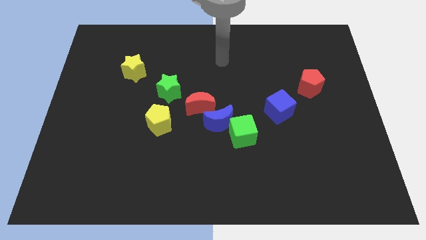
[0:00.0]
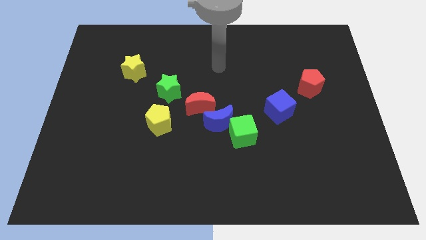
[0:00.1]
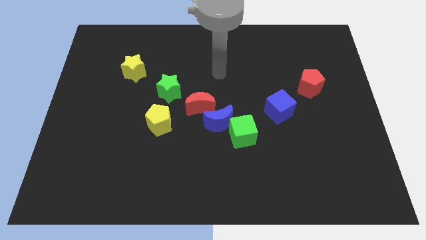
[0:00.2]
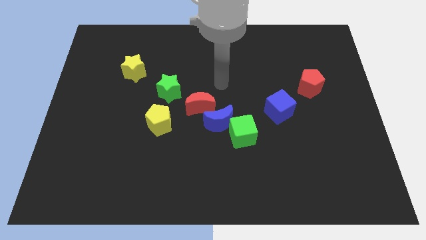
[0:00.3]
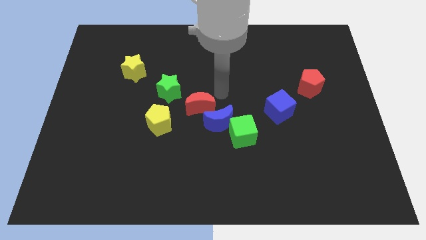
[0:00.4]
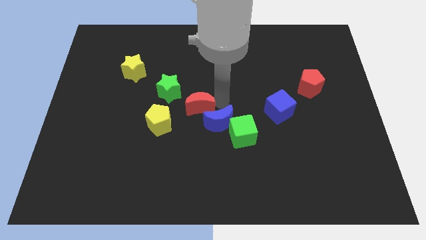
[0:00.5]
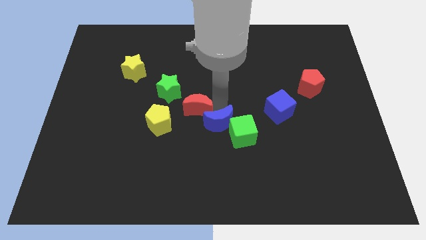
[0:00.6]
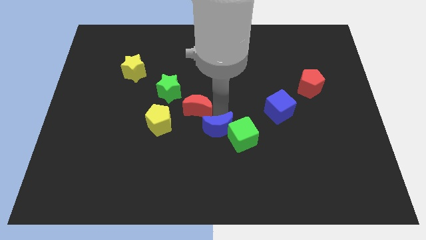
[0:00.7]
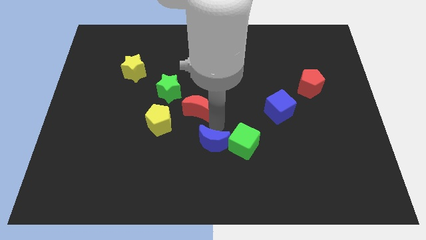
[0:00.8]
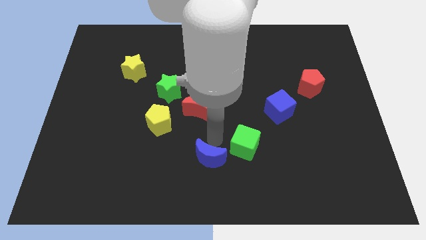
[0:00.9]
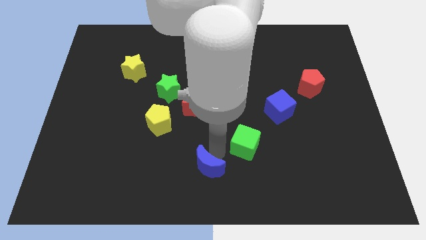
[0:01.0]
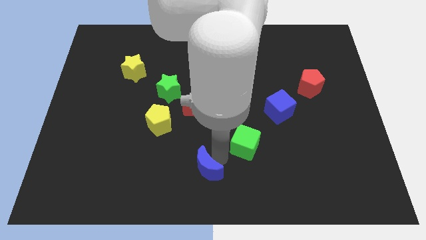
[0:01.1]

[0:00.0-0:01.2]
separate the green cube from the blue moon

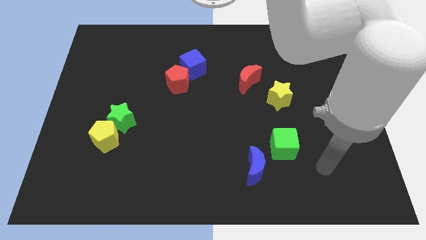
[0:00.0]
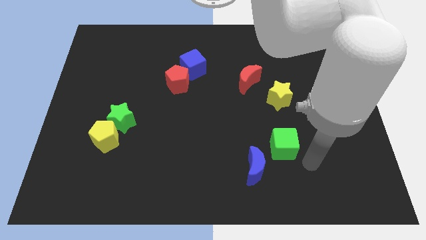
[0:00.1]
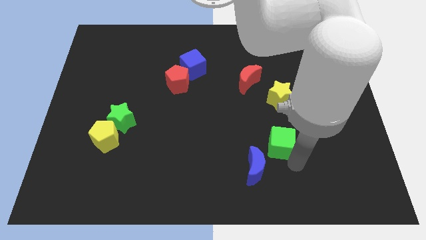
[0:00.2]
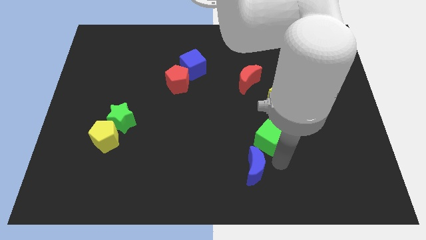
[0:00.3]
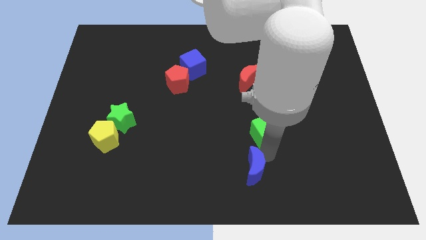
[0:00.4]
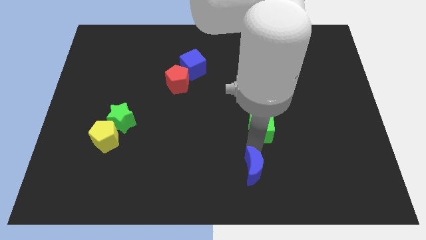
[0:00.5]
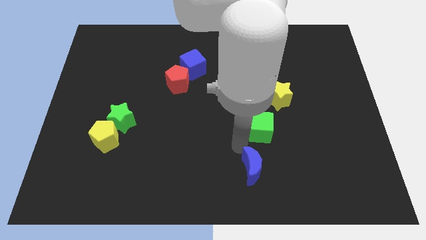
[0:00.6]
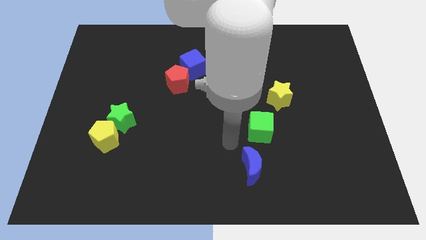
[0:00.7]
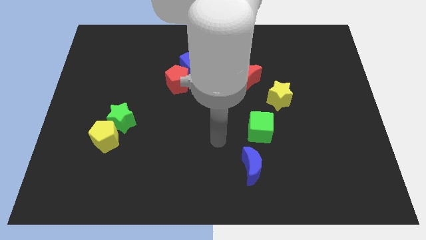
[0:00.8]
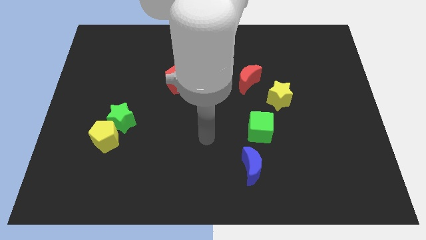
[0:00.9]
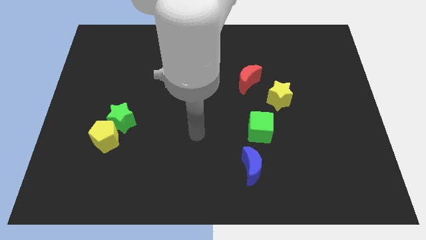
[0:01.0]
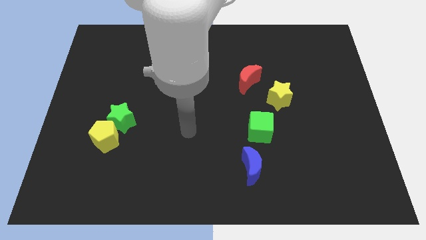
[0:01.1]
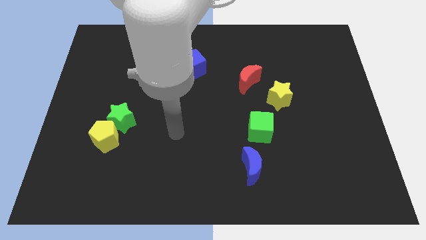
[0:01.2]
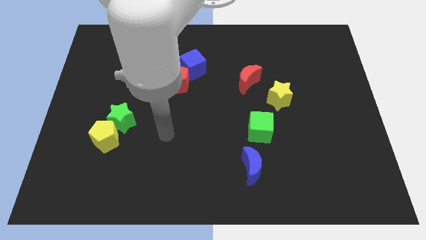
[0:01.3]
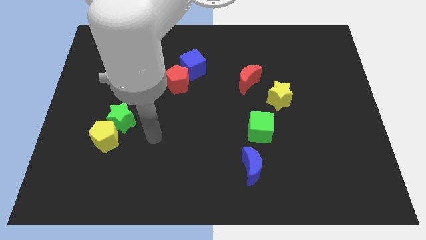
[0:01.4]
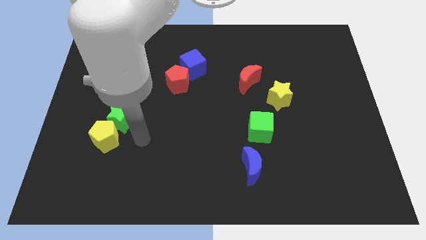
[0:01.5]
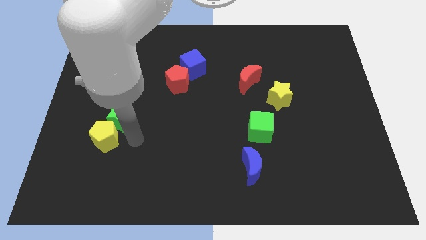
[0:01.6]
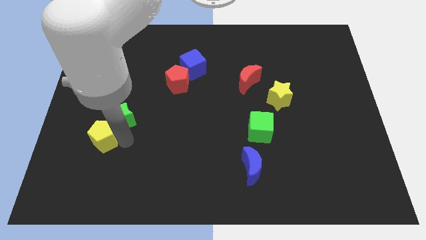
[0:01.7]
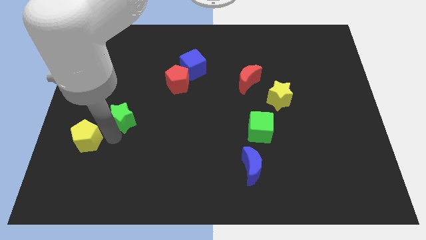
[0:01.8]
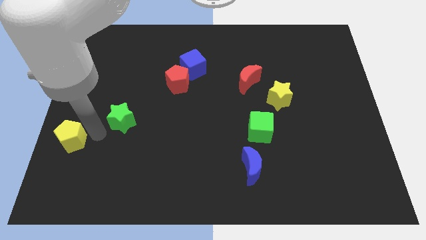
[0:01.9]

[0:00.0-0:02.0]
move the green star away from the yellow pentagon

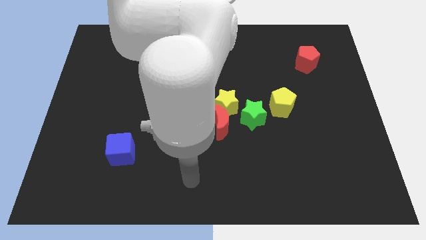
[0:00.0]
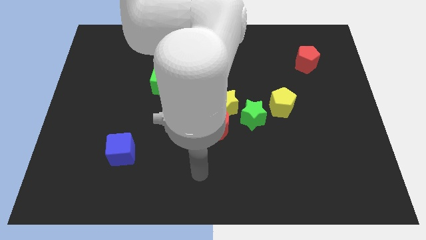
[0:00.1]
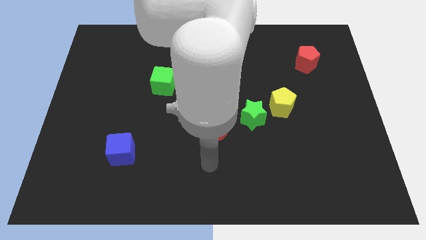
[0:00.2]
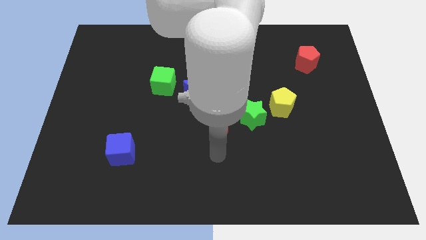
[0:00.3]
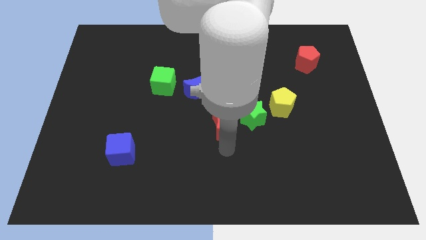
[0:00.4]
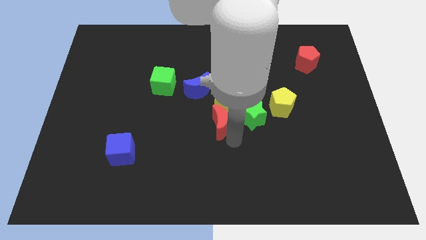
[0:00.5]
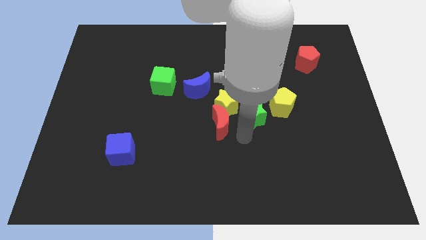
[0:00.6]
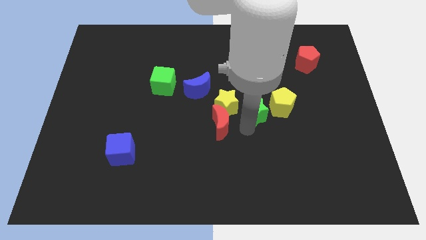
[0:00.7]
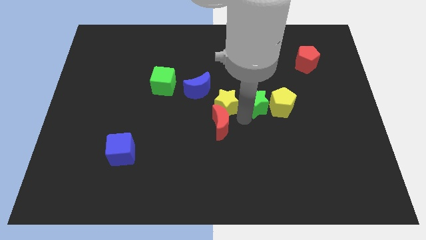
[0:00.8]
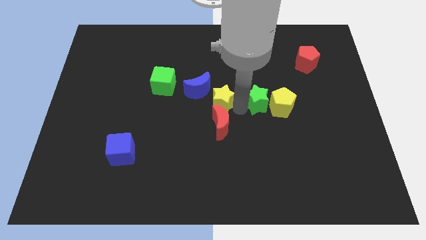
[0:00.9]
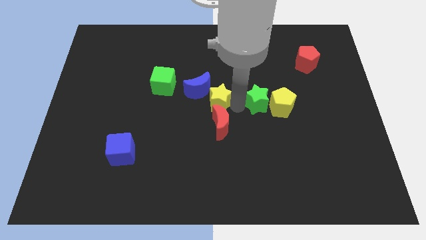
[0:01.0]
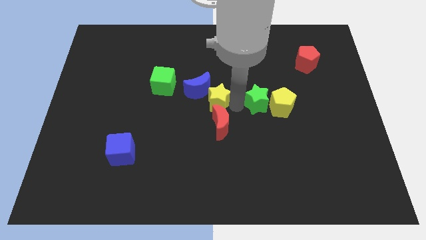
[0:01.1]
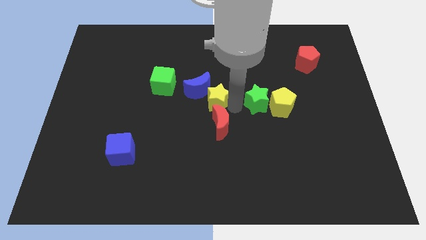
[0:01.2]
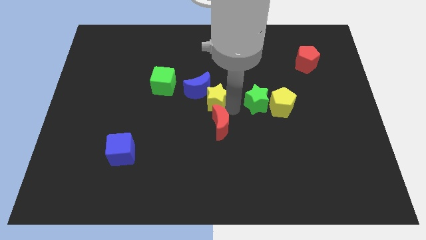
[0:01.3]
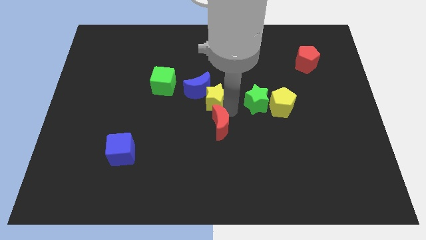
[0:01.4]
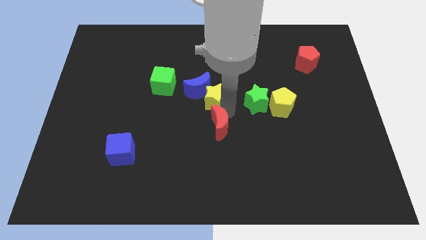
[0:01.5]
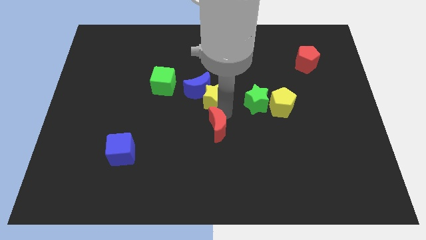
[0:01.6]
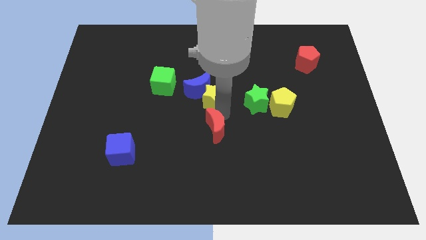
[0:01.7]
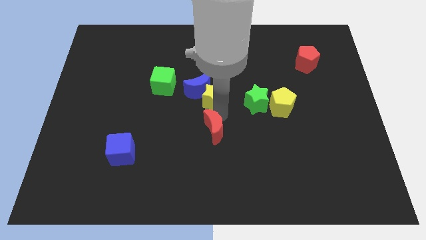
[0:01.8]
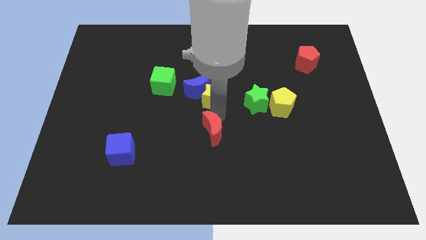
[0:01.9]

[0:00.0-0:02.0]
pull the red moon apart from the yellow star and green star

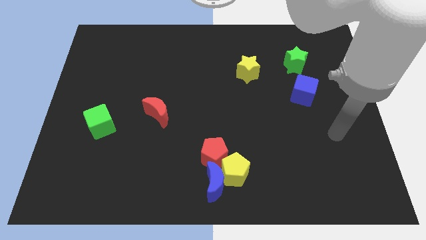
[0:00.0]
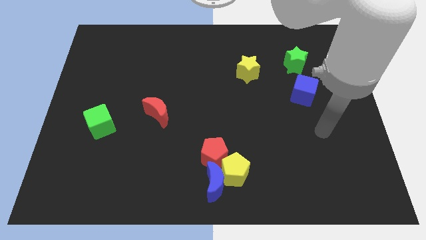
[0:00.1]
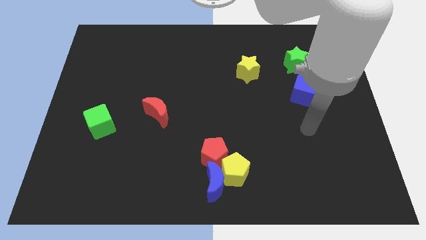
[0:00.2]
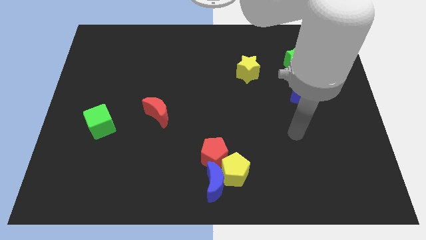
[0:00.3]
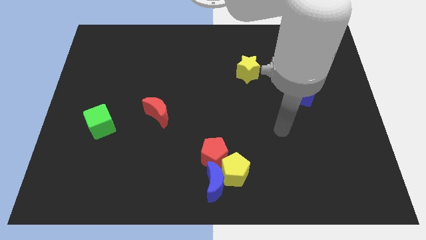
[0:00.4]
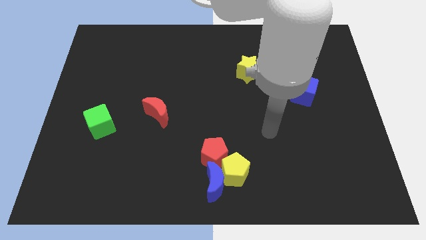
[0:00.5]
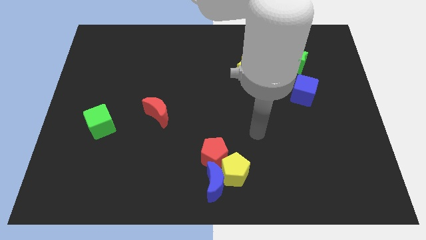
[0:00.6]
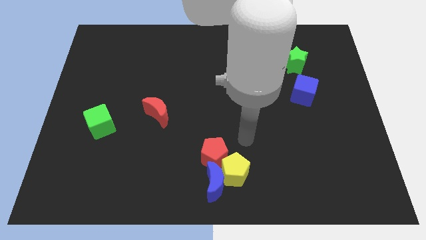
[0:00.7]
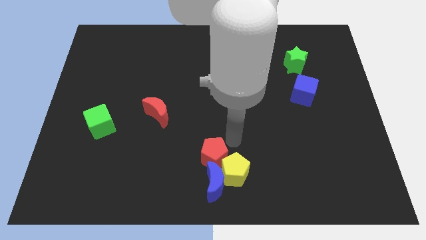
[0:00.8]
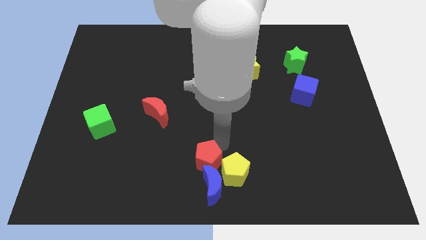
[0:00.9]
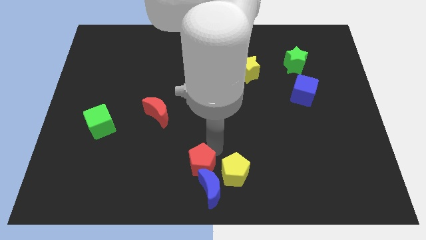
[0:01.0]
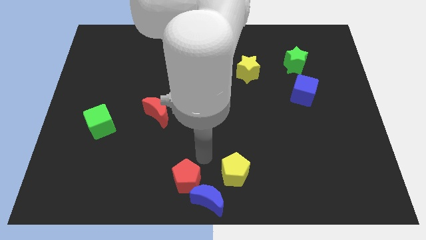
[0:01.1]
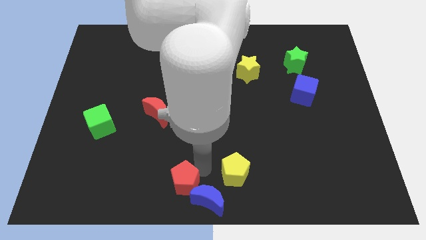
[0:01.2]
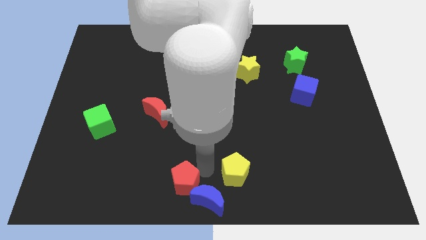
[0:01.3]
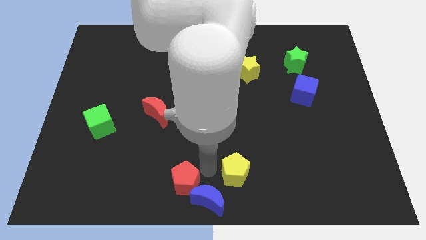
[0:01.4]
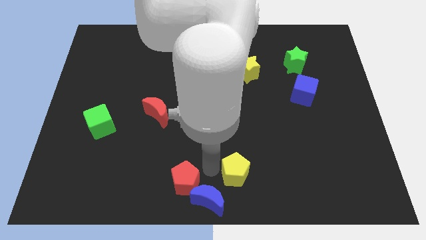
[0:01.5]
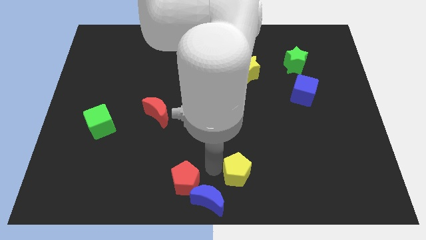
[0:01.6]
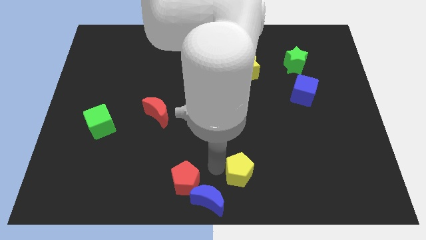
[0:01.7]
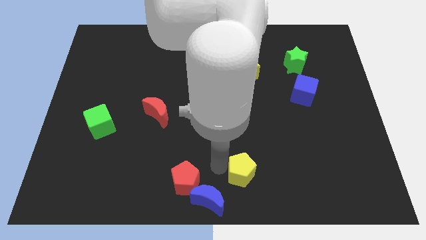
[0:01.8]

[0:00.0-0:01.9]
pull the yellow pentagon apart from the blue moon and red pentagon

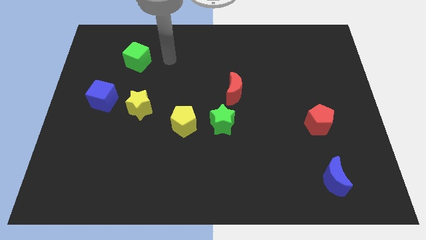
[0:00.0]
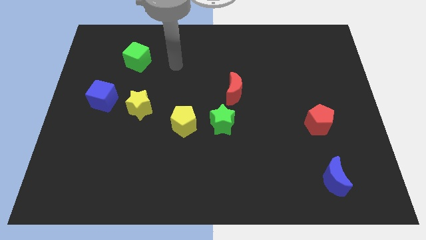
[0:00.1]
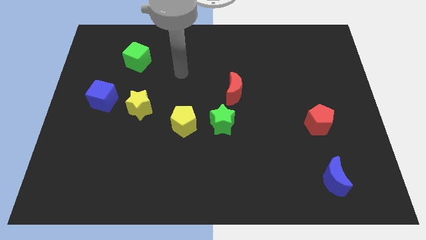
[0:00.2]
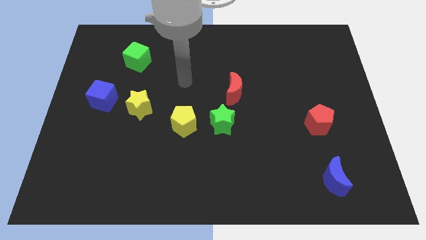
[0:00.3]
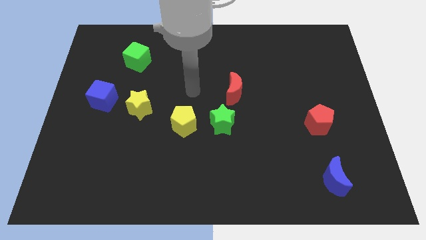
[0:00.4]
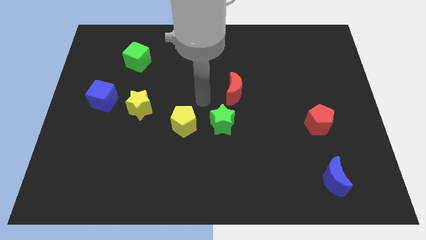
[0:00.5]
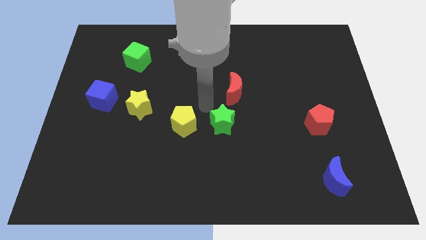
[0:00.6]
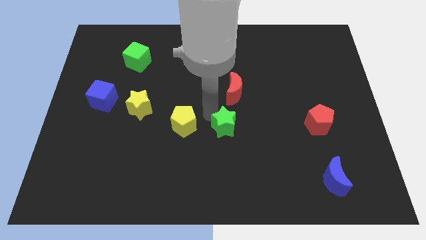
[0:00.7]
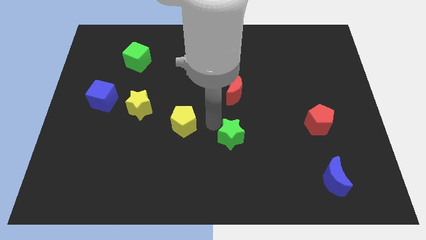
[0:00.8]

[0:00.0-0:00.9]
pull the yellow pentagon apart from the green star

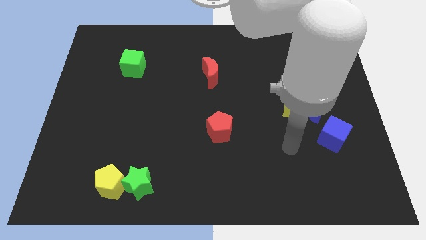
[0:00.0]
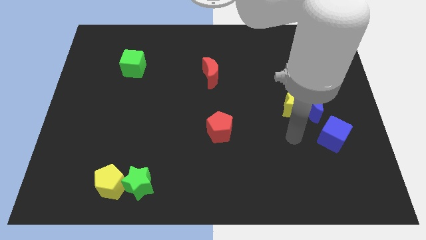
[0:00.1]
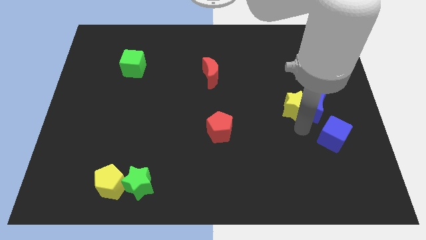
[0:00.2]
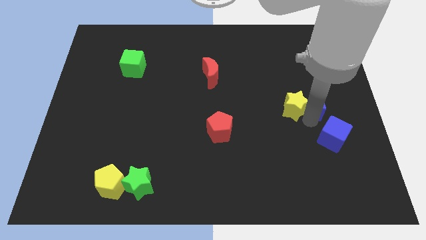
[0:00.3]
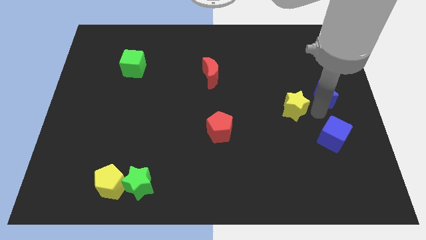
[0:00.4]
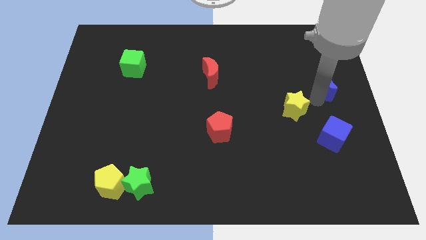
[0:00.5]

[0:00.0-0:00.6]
move the yellow star away from the blue moon

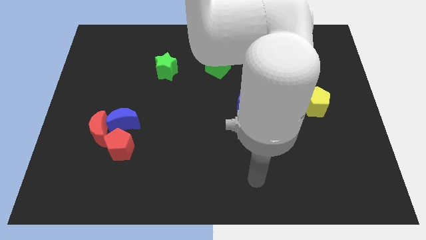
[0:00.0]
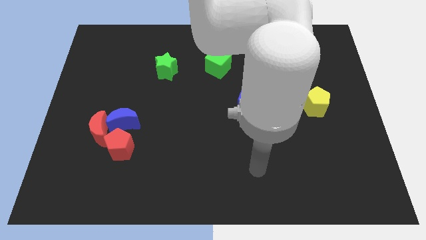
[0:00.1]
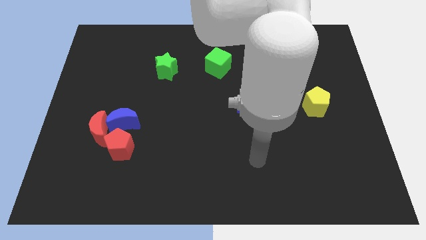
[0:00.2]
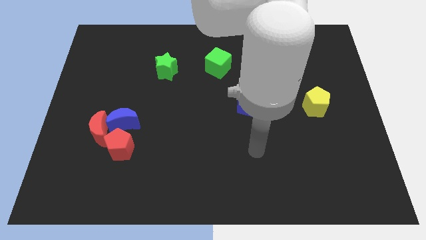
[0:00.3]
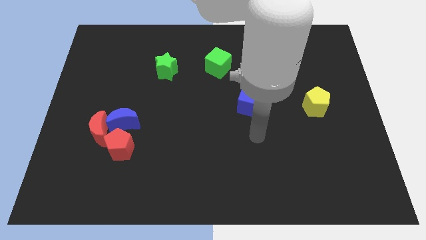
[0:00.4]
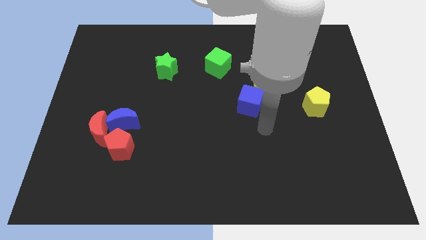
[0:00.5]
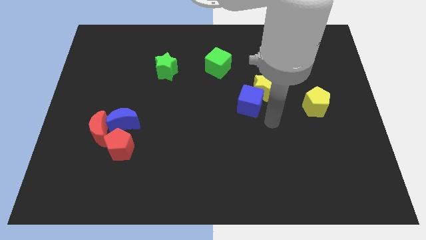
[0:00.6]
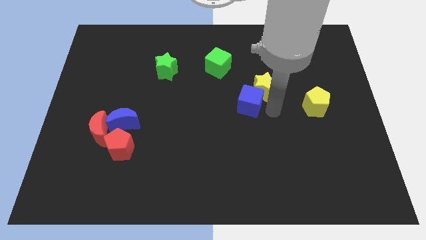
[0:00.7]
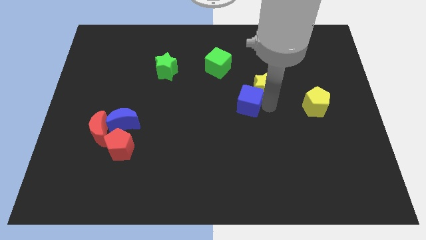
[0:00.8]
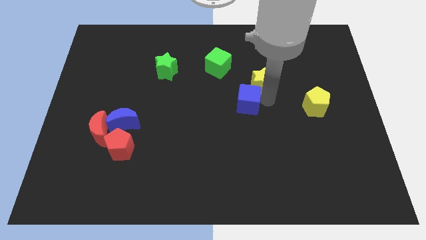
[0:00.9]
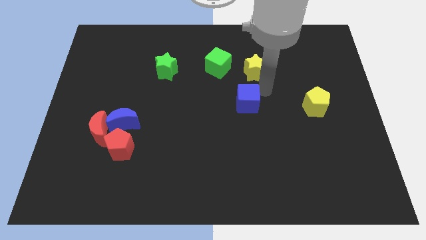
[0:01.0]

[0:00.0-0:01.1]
pull the blue cube apart from the yellow star
